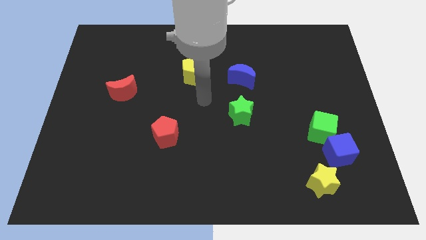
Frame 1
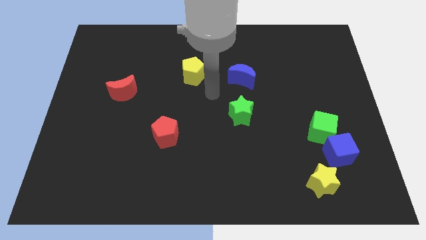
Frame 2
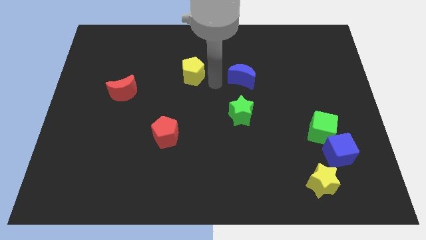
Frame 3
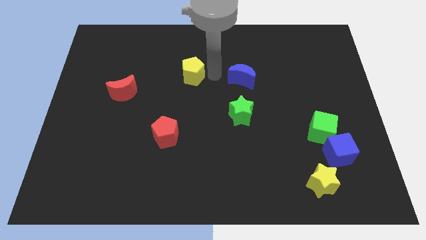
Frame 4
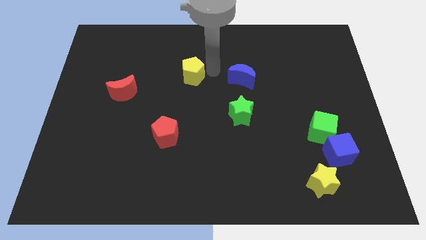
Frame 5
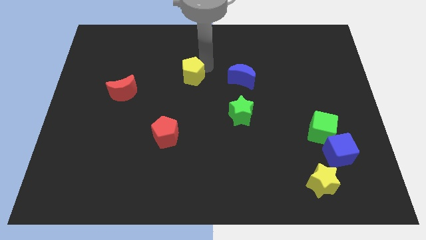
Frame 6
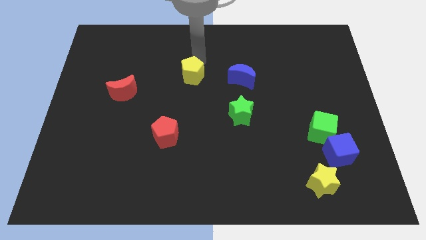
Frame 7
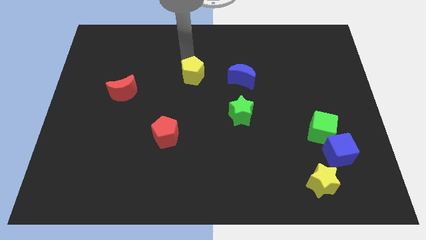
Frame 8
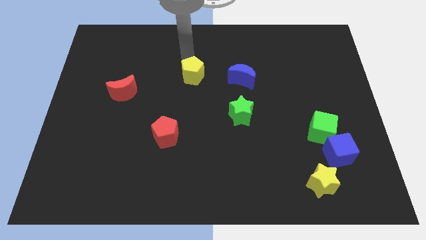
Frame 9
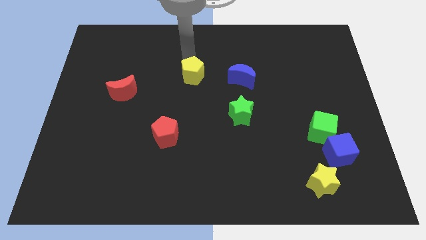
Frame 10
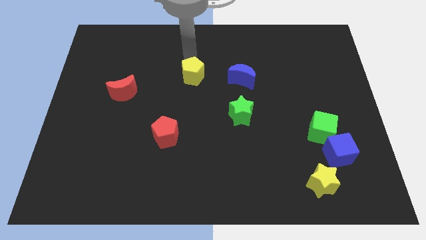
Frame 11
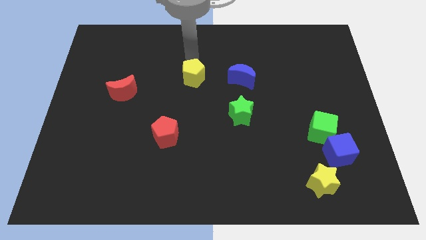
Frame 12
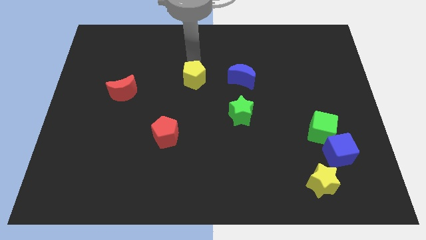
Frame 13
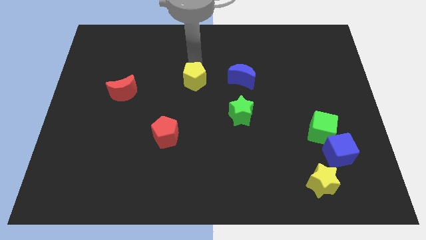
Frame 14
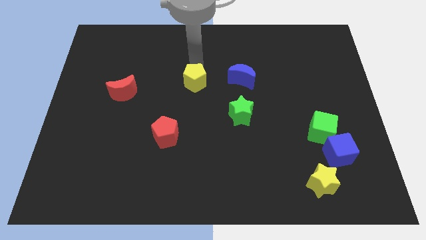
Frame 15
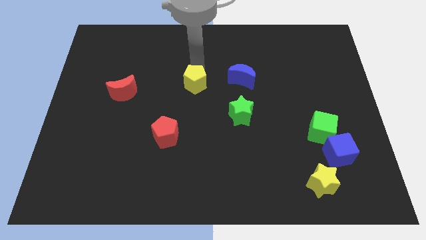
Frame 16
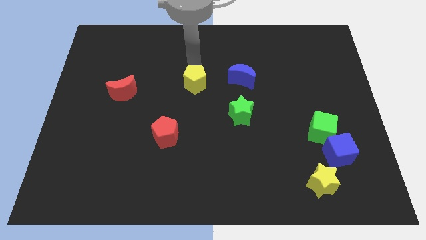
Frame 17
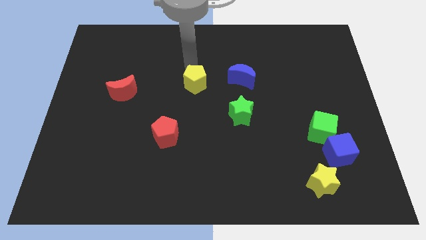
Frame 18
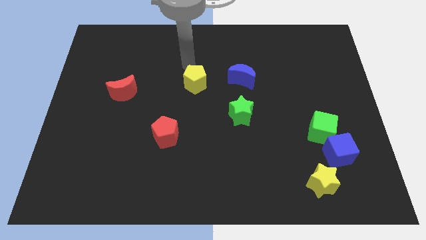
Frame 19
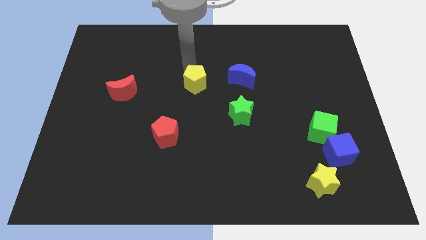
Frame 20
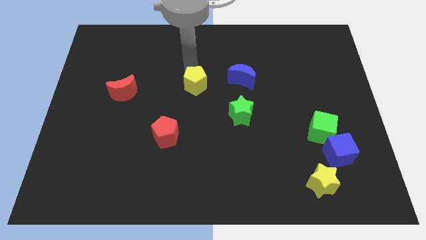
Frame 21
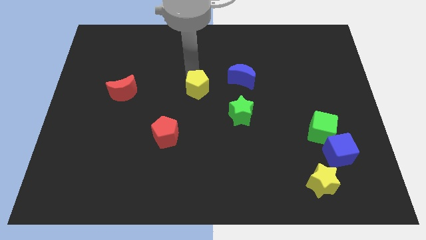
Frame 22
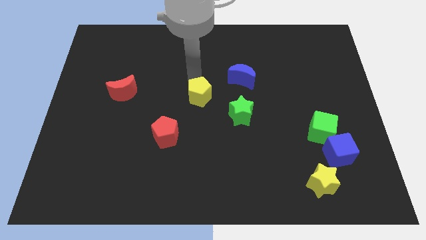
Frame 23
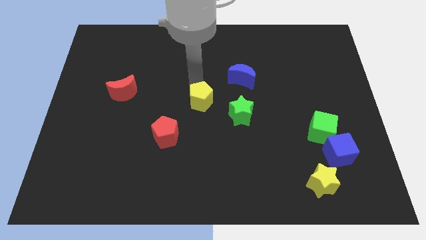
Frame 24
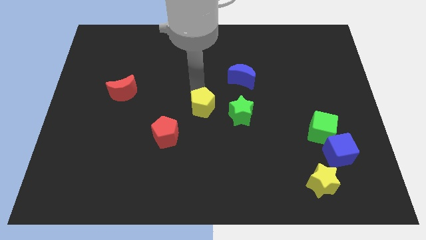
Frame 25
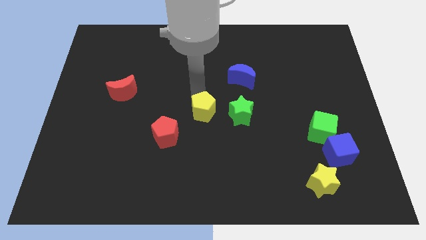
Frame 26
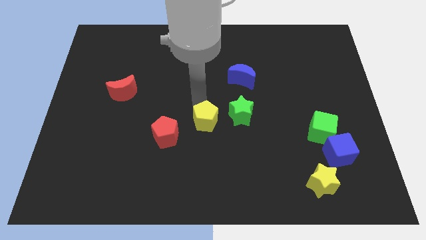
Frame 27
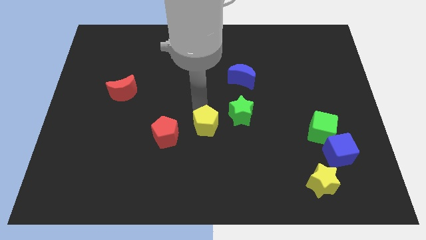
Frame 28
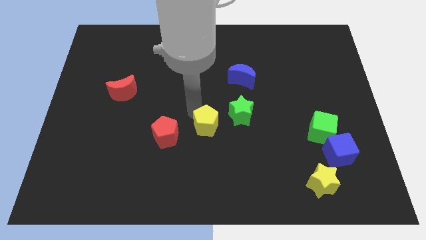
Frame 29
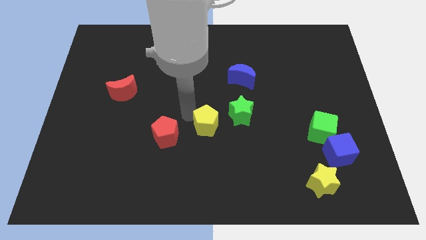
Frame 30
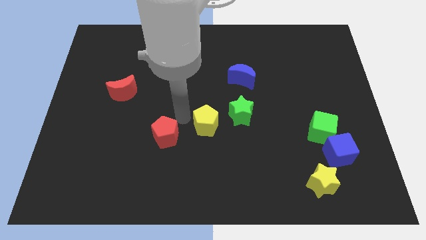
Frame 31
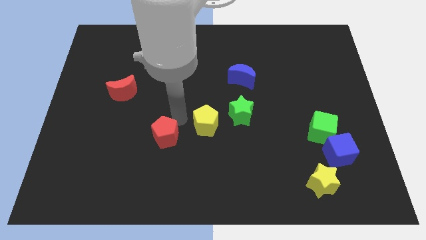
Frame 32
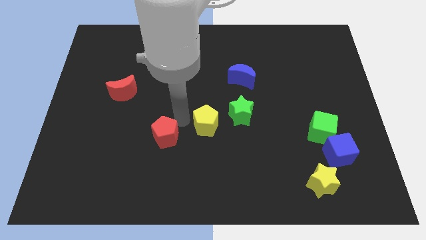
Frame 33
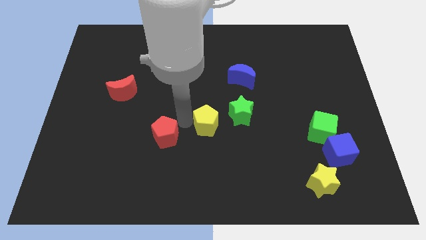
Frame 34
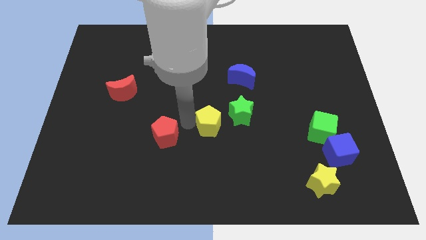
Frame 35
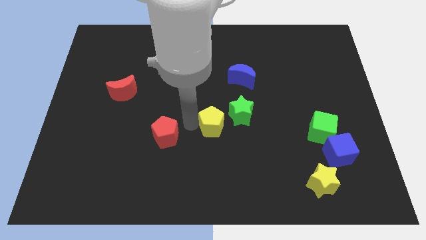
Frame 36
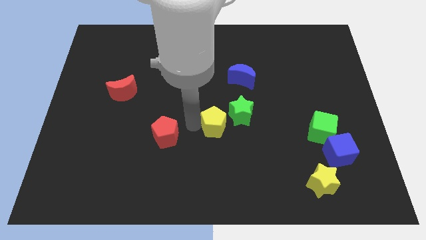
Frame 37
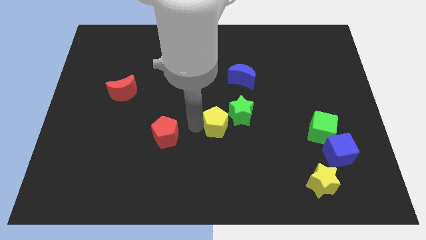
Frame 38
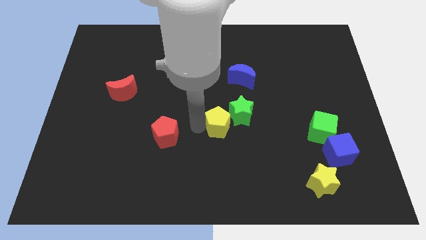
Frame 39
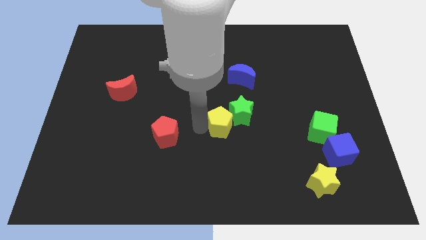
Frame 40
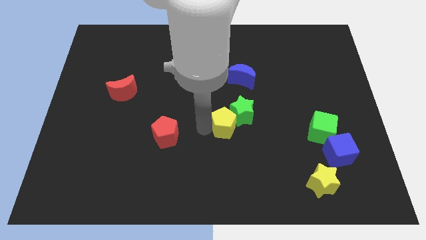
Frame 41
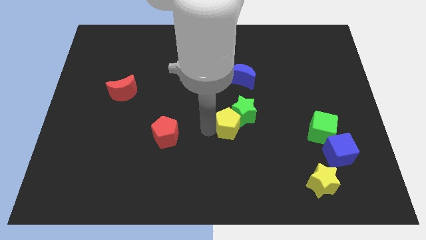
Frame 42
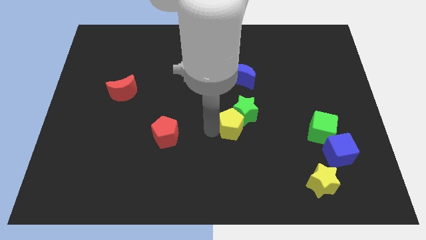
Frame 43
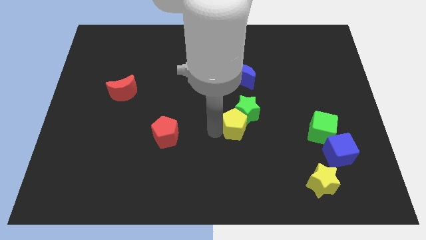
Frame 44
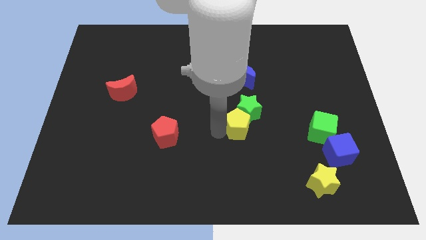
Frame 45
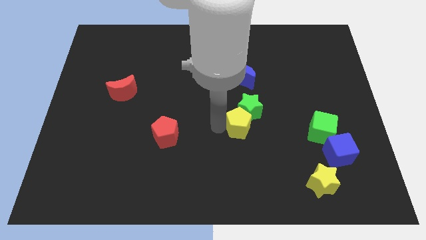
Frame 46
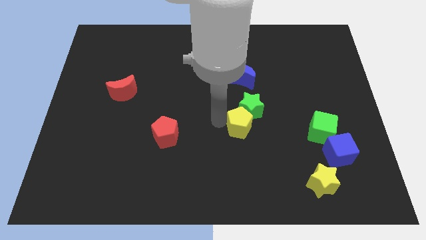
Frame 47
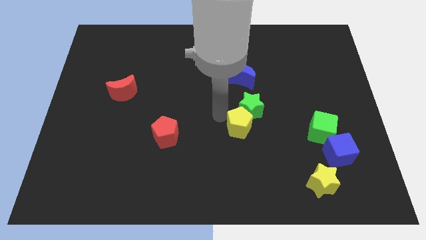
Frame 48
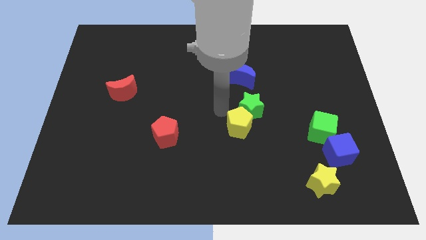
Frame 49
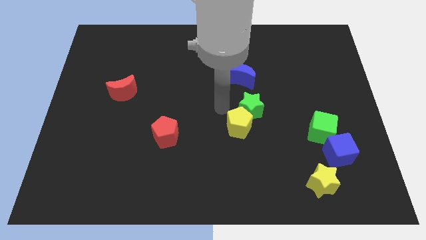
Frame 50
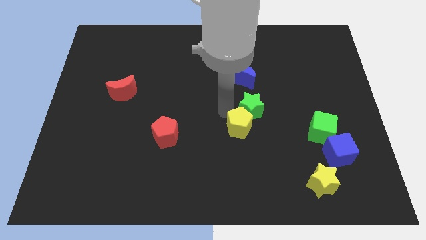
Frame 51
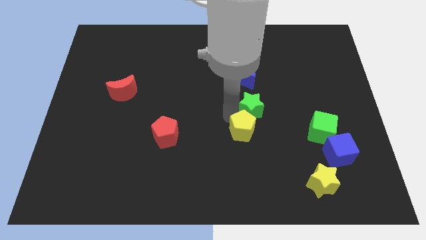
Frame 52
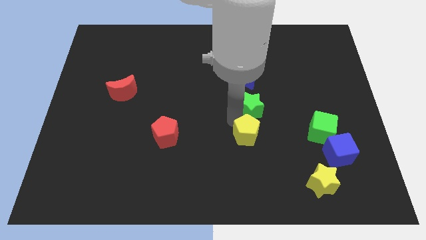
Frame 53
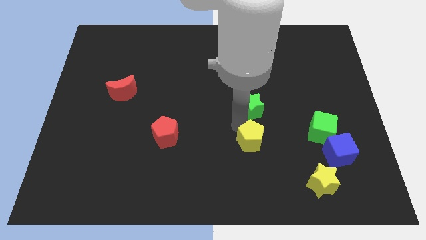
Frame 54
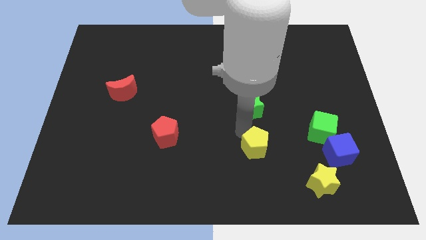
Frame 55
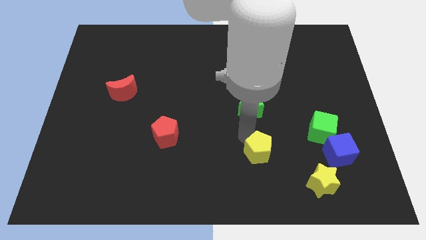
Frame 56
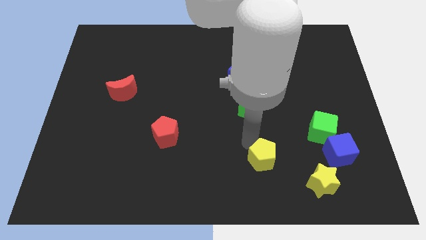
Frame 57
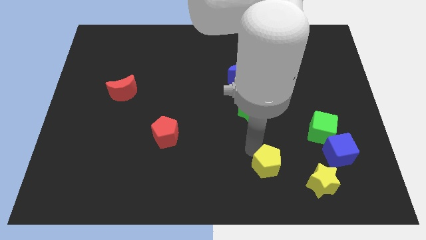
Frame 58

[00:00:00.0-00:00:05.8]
push the yellow pentagon diagonally up and to the left of the yellow star

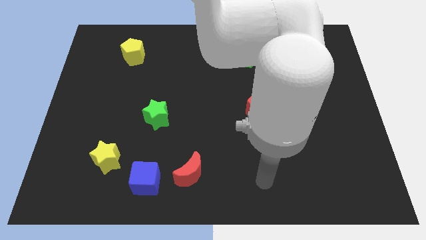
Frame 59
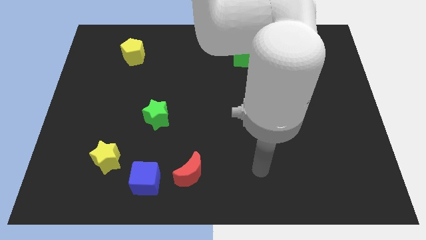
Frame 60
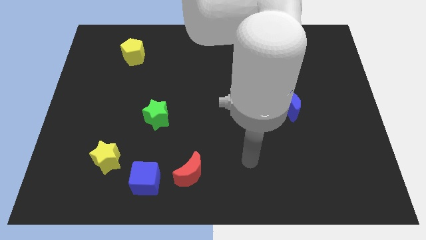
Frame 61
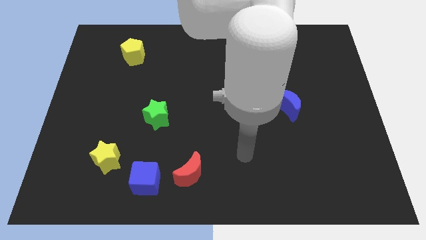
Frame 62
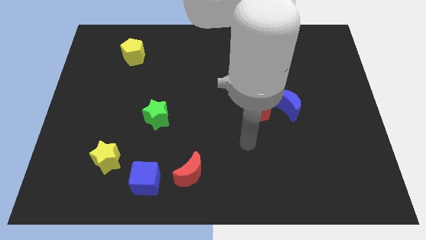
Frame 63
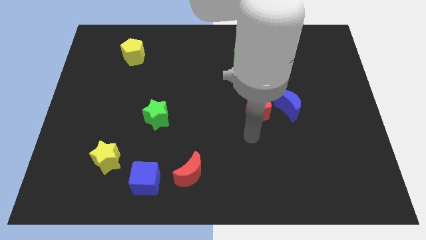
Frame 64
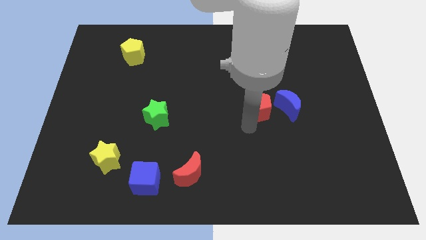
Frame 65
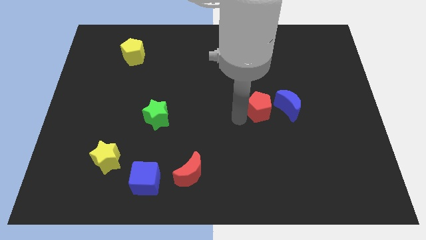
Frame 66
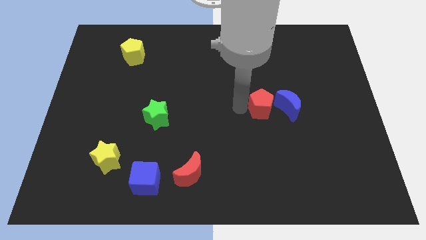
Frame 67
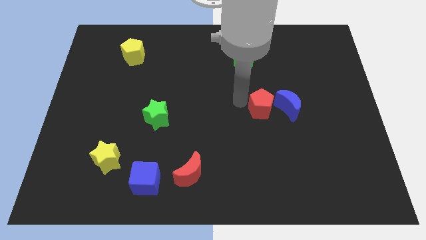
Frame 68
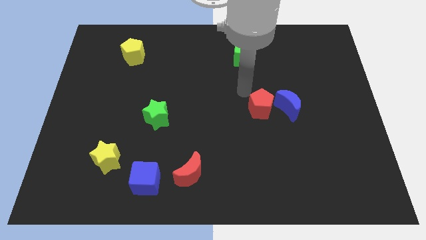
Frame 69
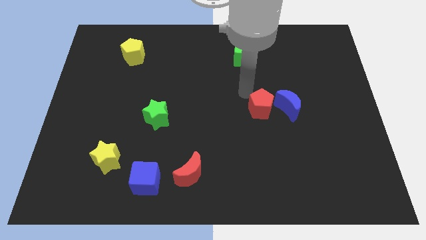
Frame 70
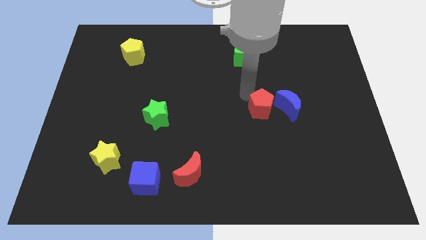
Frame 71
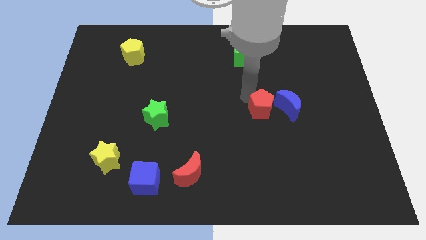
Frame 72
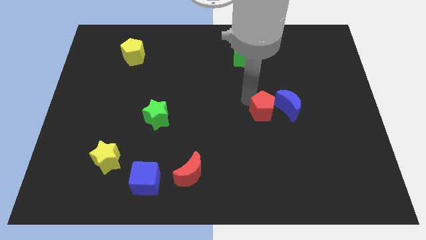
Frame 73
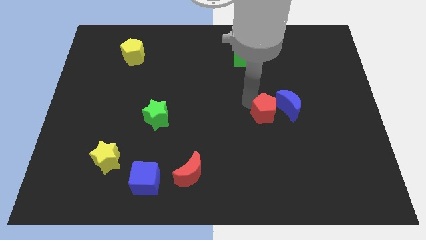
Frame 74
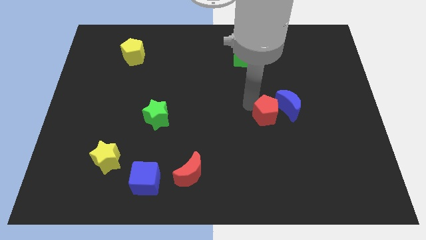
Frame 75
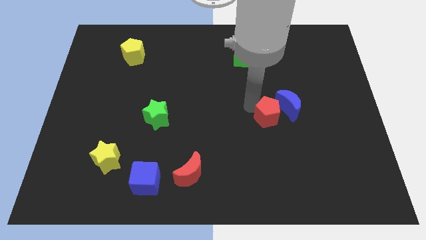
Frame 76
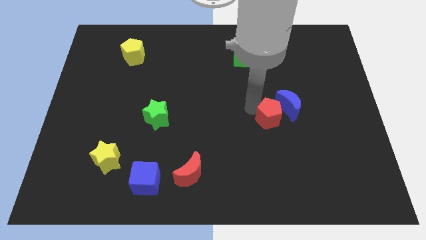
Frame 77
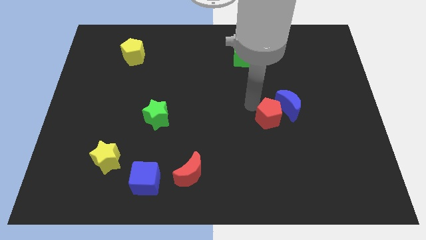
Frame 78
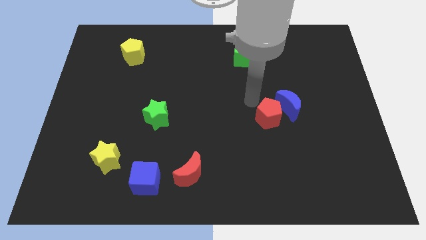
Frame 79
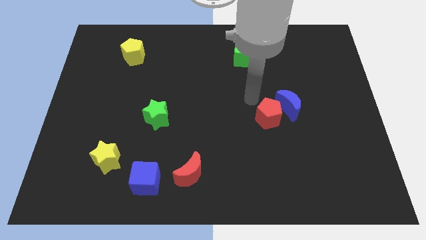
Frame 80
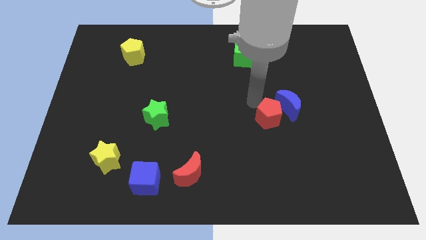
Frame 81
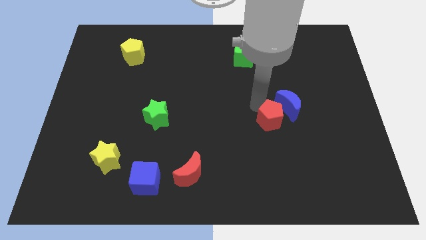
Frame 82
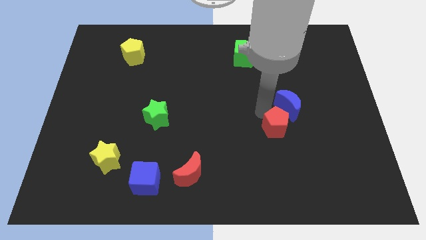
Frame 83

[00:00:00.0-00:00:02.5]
push the red pentagon to the bottom side of the blue moon
